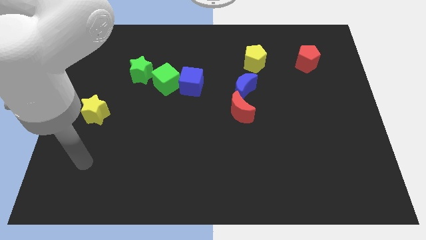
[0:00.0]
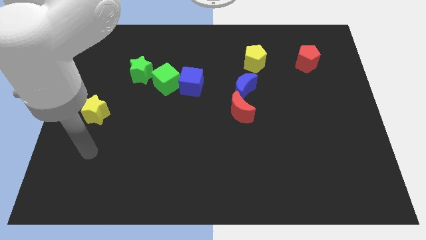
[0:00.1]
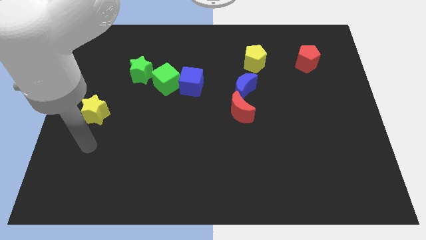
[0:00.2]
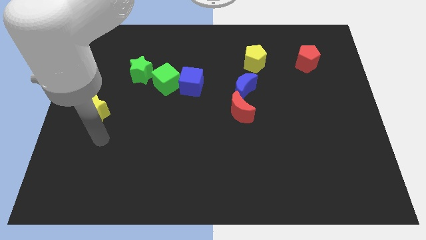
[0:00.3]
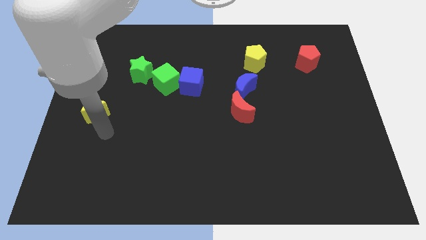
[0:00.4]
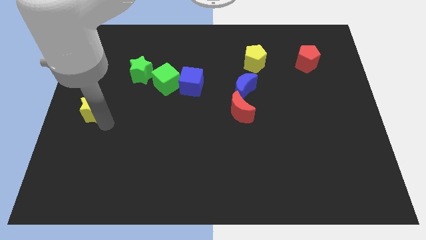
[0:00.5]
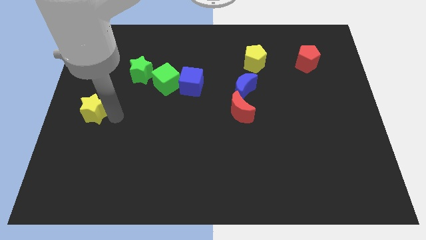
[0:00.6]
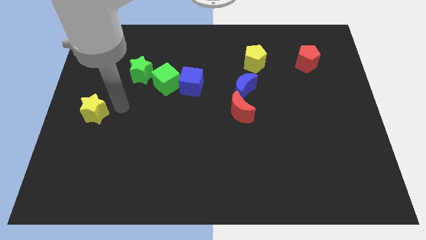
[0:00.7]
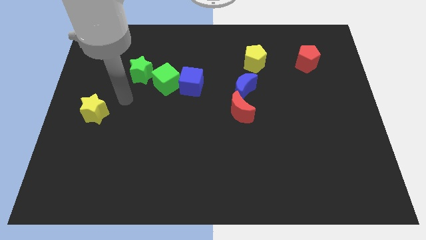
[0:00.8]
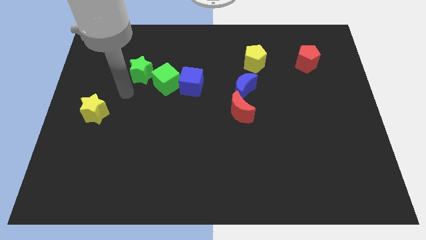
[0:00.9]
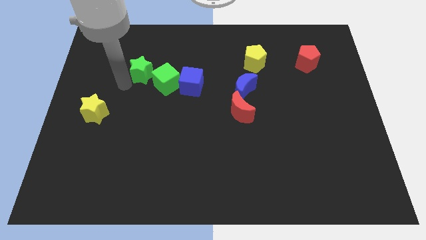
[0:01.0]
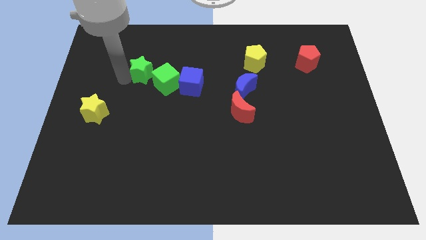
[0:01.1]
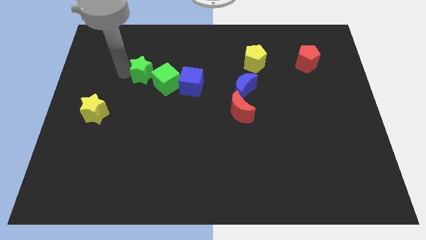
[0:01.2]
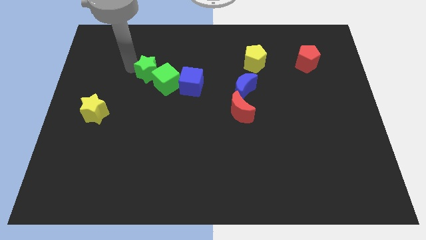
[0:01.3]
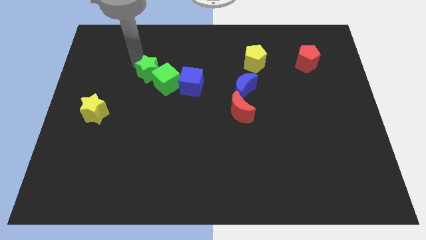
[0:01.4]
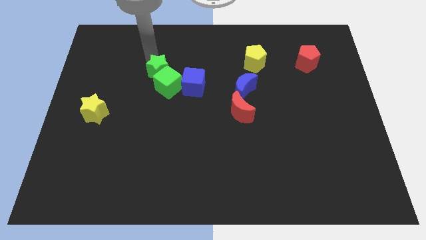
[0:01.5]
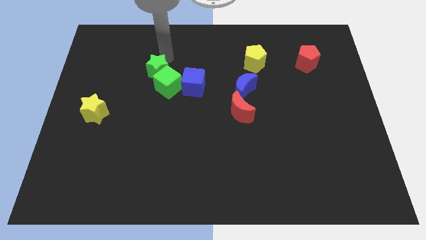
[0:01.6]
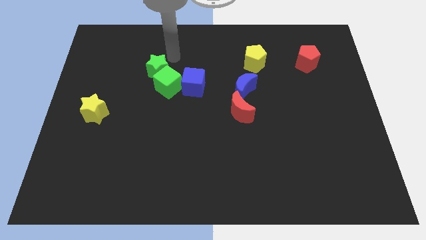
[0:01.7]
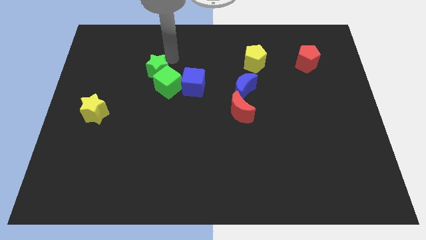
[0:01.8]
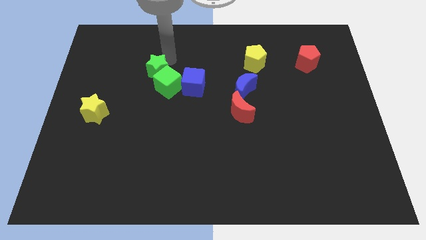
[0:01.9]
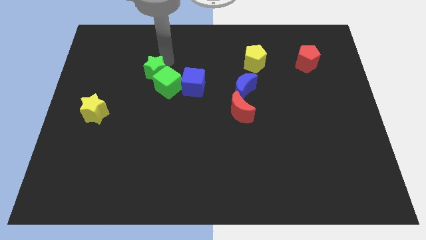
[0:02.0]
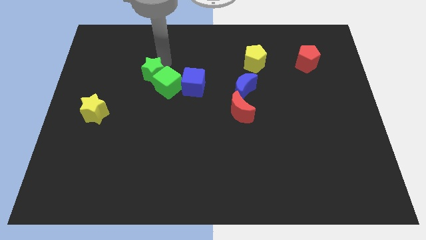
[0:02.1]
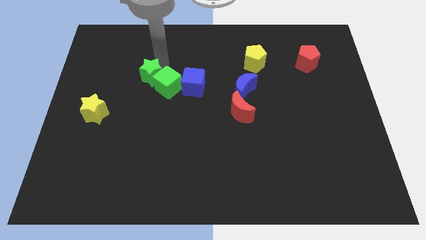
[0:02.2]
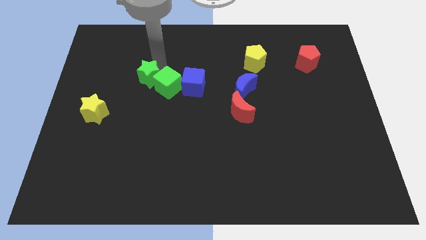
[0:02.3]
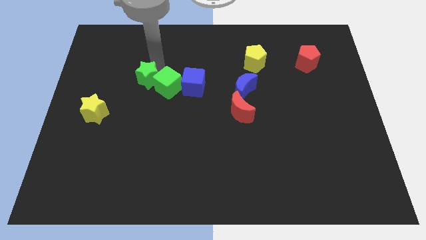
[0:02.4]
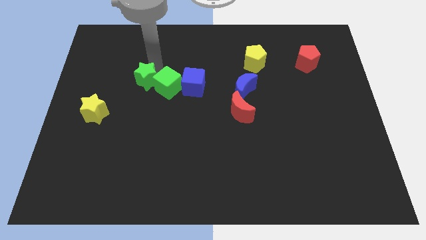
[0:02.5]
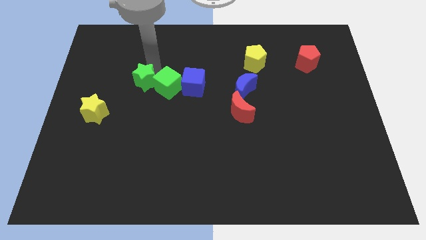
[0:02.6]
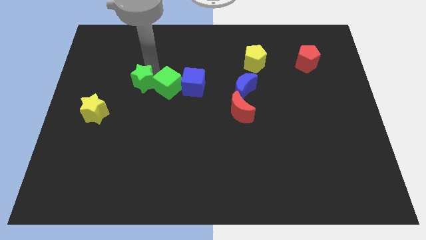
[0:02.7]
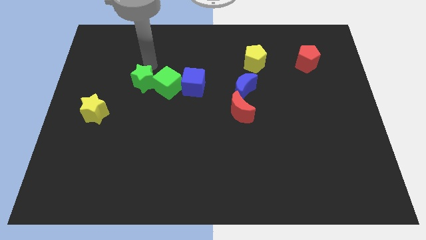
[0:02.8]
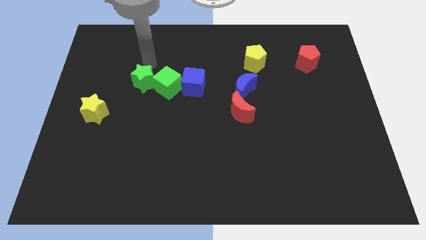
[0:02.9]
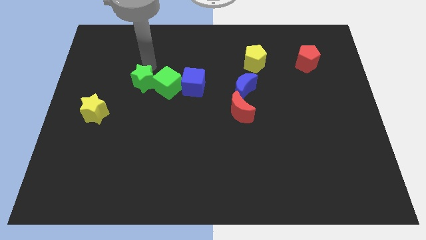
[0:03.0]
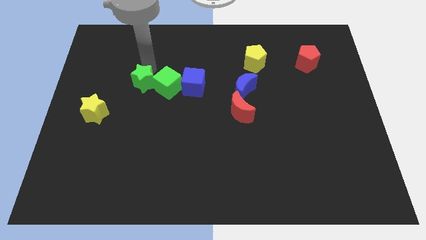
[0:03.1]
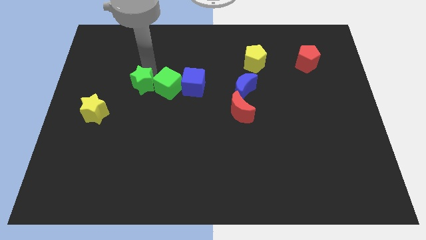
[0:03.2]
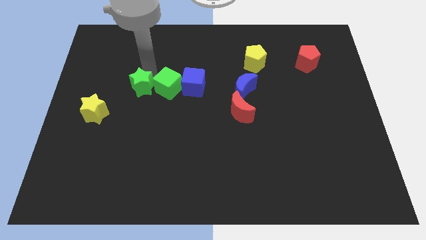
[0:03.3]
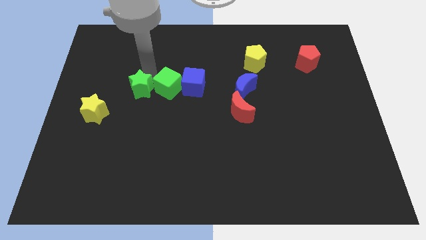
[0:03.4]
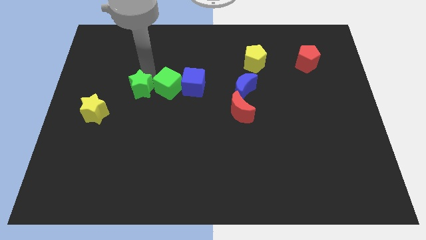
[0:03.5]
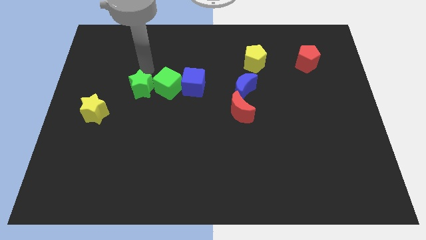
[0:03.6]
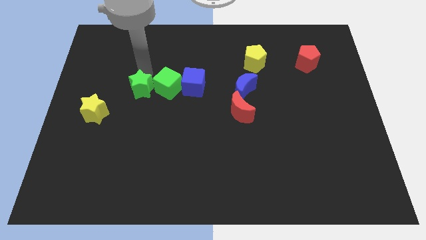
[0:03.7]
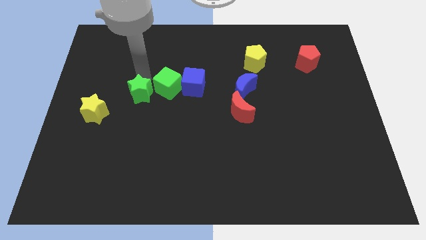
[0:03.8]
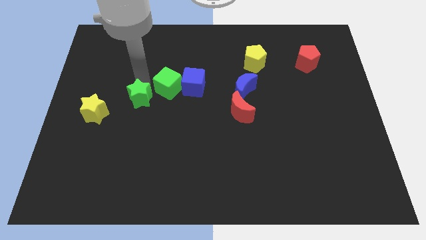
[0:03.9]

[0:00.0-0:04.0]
slightly slide the green star downwards

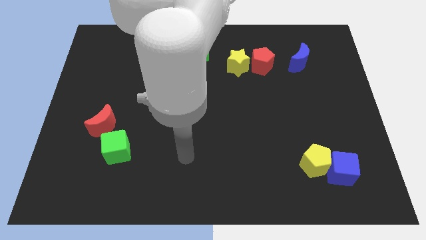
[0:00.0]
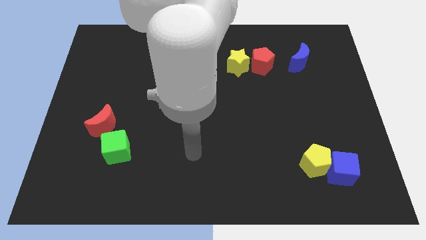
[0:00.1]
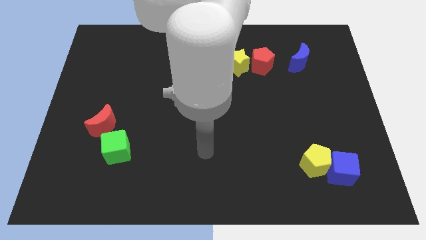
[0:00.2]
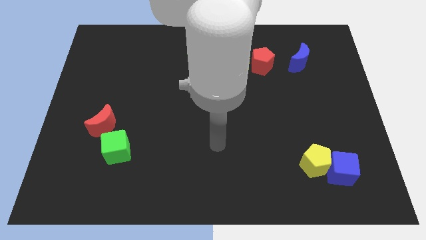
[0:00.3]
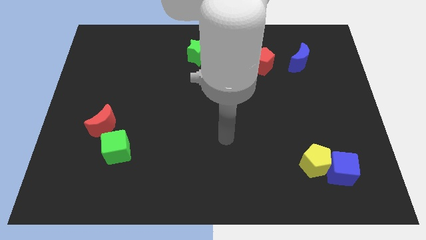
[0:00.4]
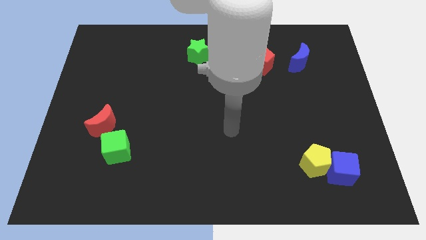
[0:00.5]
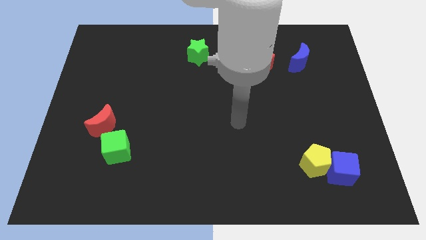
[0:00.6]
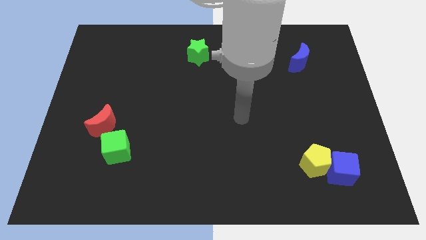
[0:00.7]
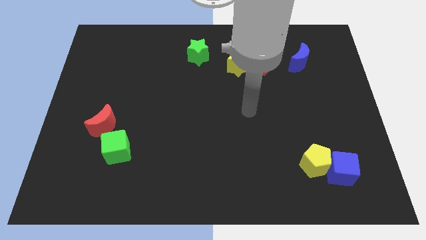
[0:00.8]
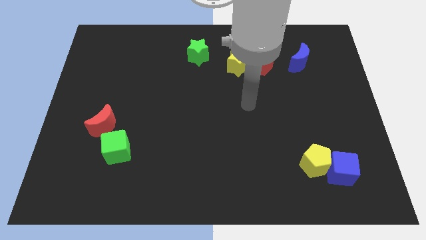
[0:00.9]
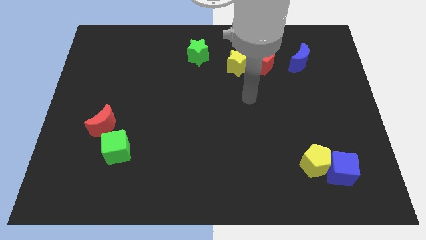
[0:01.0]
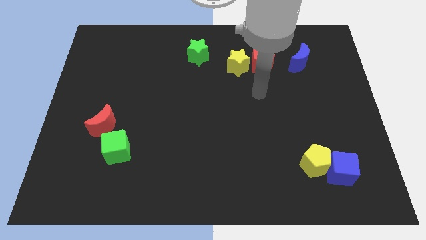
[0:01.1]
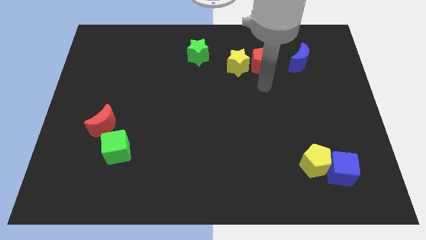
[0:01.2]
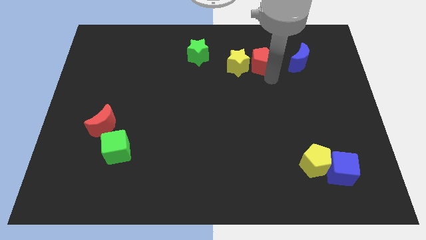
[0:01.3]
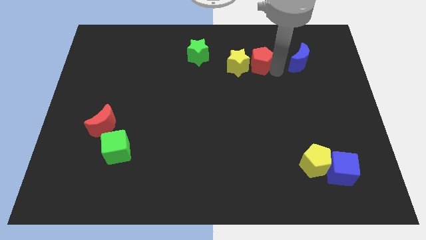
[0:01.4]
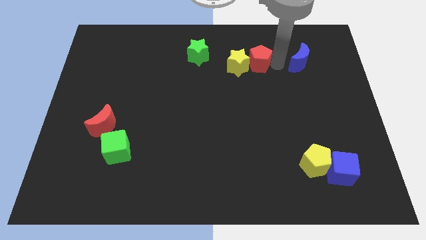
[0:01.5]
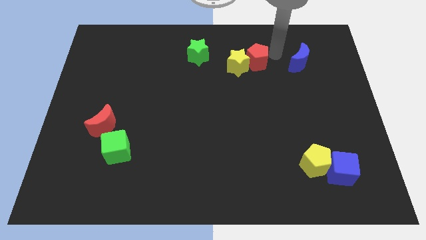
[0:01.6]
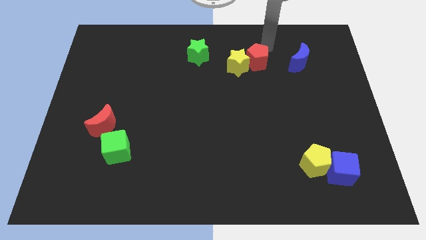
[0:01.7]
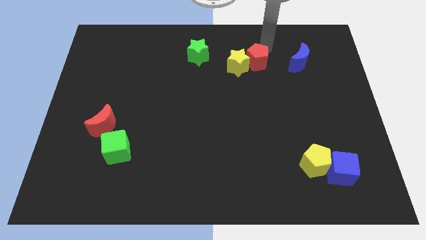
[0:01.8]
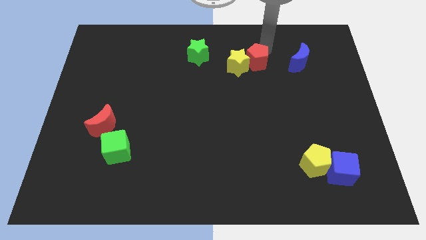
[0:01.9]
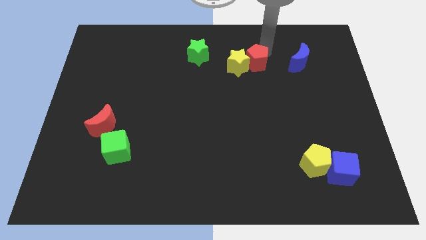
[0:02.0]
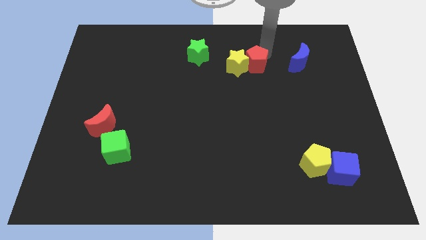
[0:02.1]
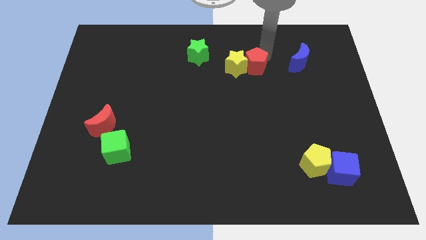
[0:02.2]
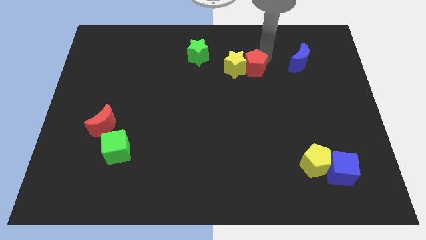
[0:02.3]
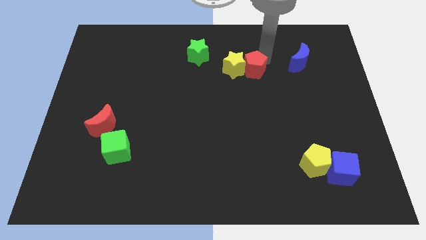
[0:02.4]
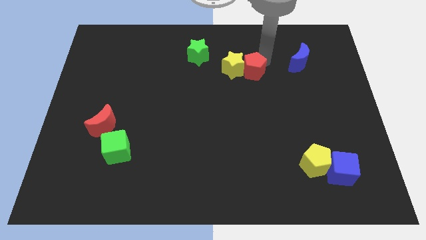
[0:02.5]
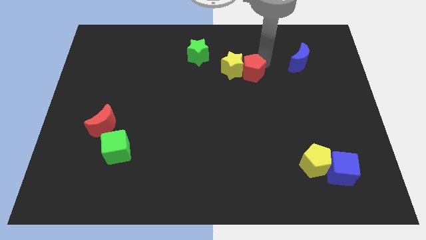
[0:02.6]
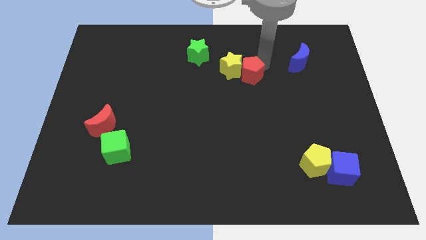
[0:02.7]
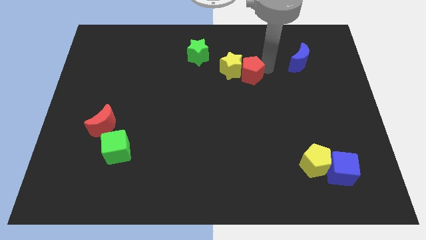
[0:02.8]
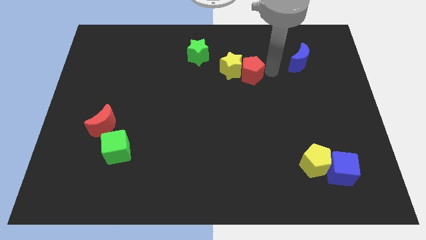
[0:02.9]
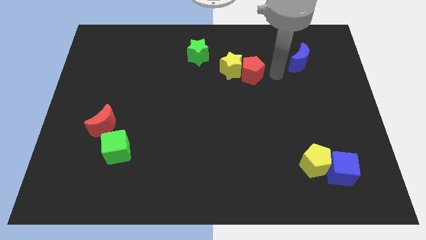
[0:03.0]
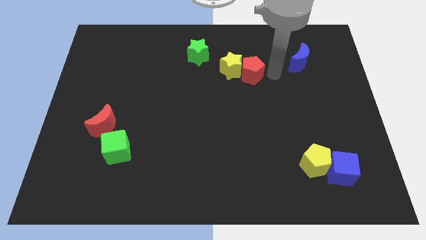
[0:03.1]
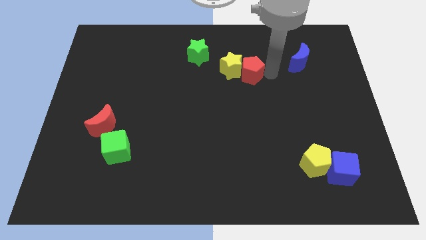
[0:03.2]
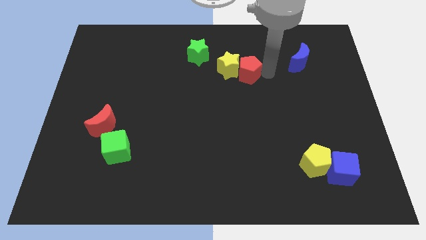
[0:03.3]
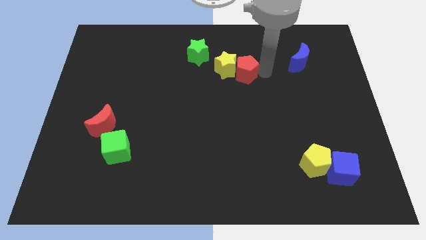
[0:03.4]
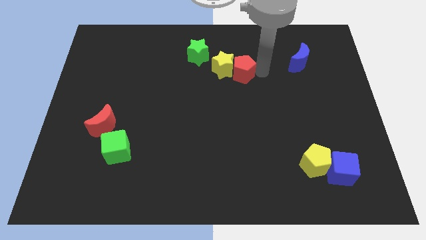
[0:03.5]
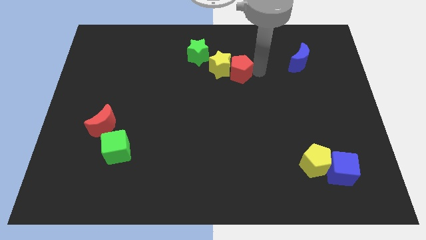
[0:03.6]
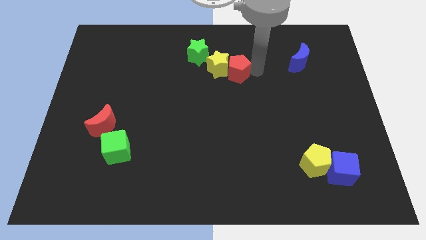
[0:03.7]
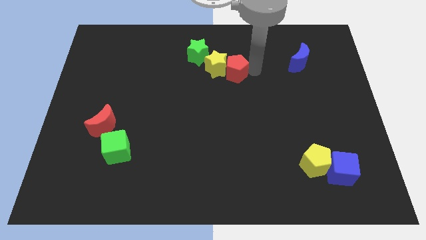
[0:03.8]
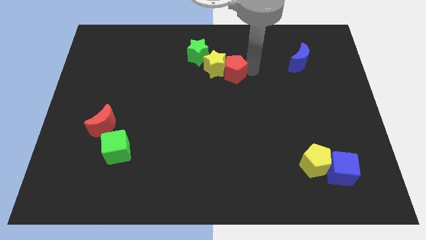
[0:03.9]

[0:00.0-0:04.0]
push the red pentagon left a little bit
